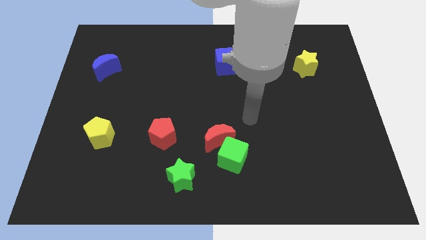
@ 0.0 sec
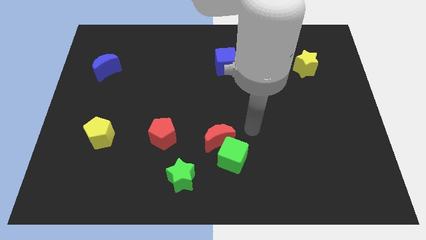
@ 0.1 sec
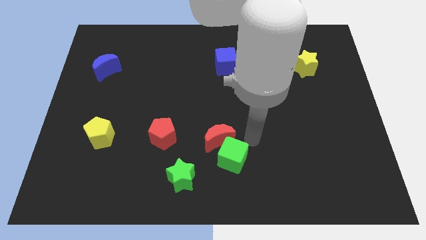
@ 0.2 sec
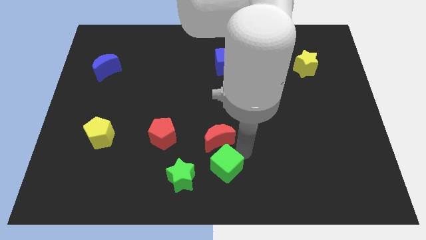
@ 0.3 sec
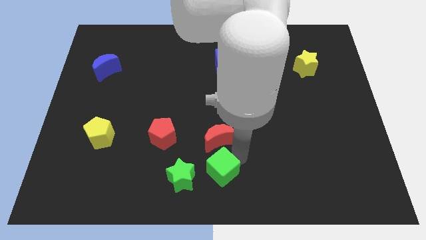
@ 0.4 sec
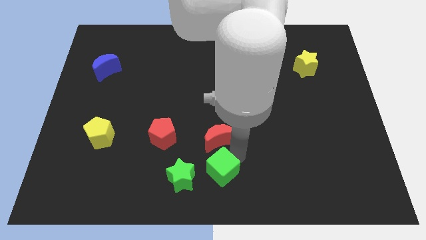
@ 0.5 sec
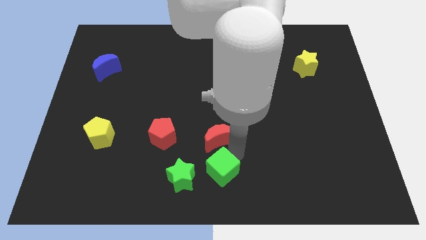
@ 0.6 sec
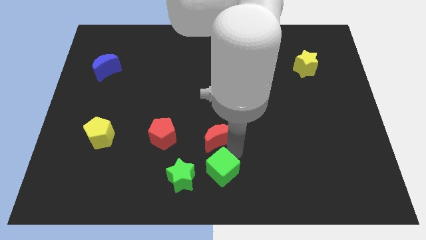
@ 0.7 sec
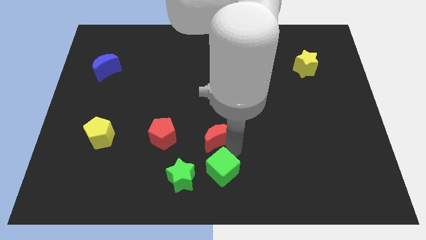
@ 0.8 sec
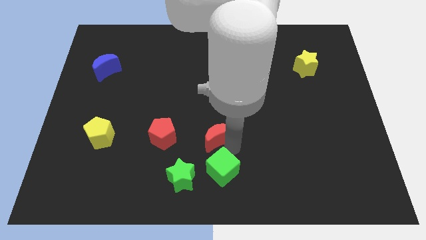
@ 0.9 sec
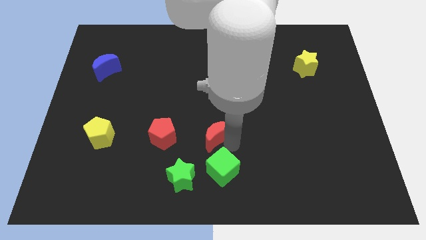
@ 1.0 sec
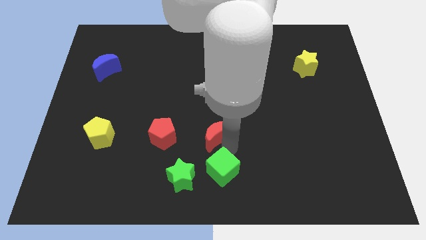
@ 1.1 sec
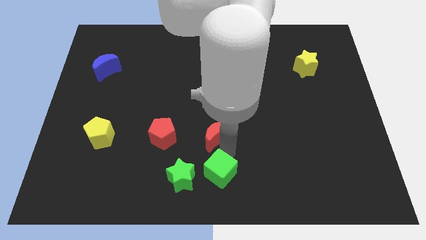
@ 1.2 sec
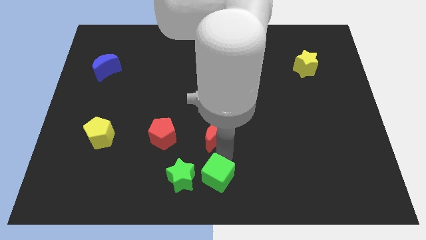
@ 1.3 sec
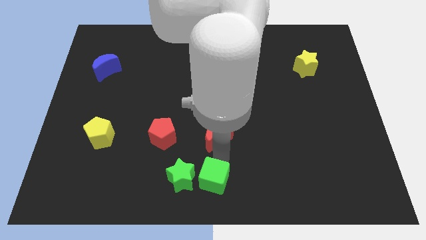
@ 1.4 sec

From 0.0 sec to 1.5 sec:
separate the red moon from the green cube

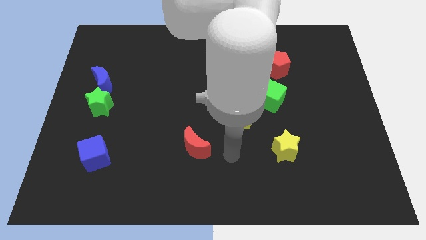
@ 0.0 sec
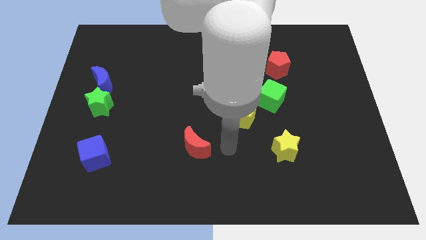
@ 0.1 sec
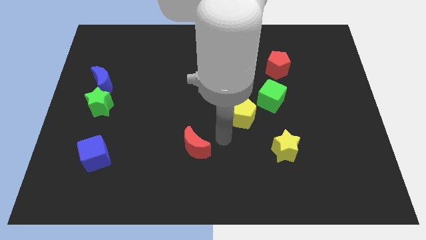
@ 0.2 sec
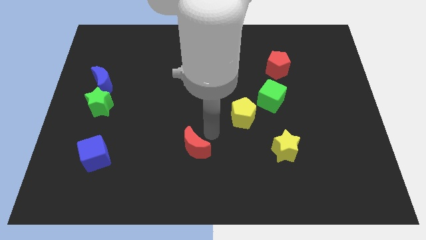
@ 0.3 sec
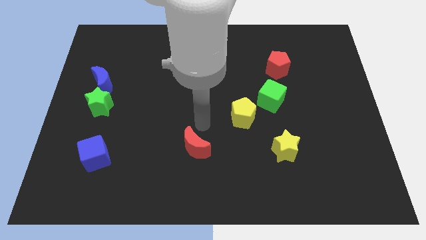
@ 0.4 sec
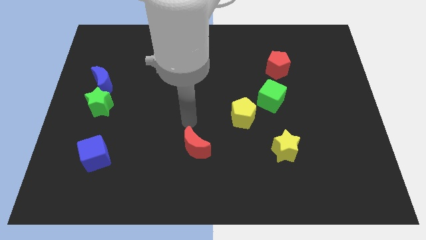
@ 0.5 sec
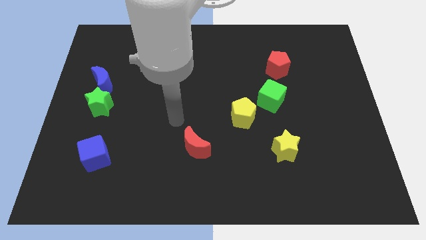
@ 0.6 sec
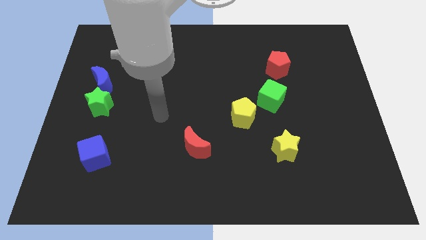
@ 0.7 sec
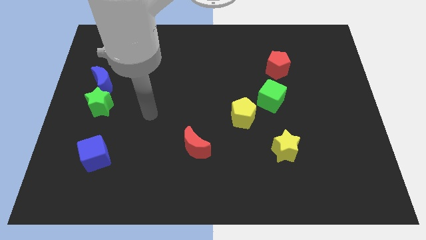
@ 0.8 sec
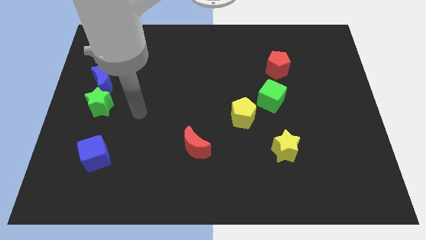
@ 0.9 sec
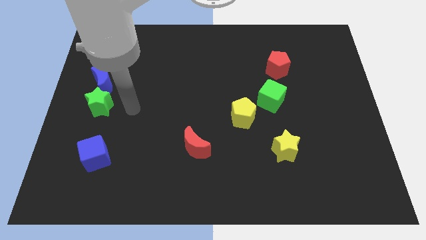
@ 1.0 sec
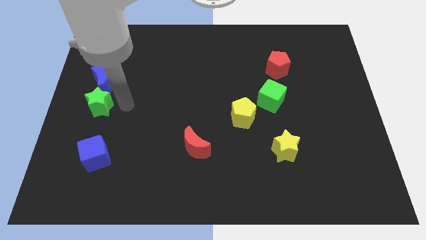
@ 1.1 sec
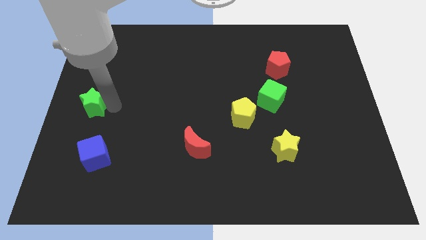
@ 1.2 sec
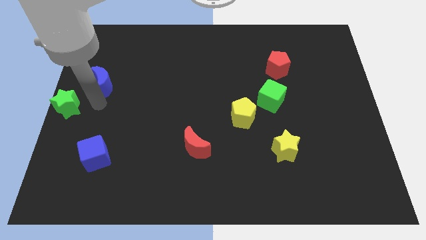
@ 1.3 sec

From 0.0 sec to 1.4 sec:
separate the blue moon from the green star

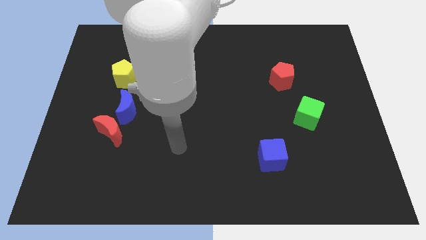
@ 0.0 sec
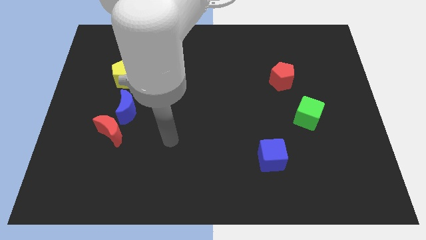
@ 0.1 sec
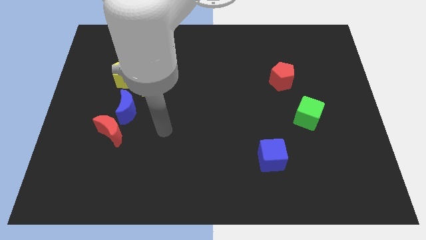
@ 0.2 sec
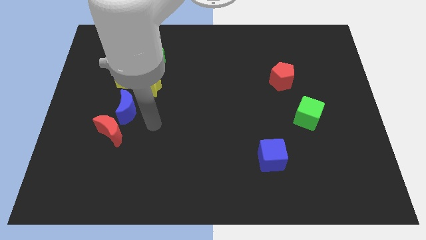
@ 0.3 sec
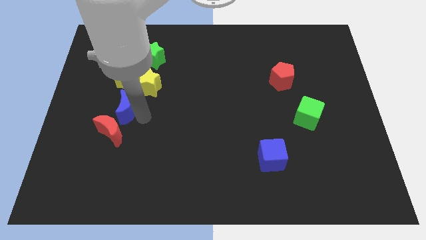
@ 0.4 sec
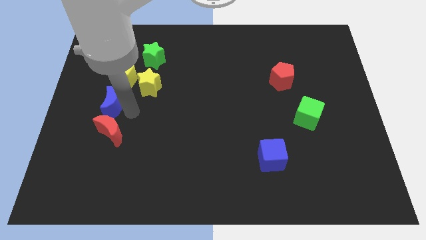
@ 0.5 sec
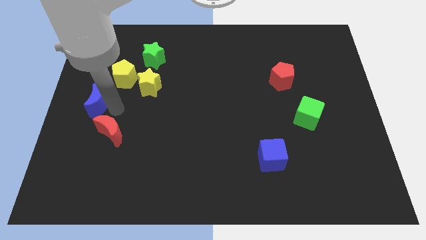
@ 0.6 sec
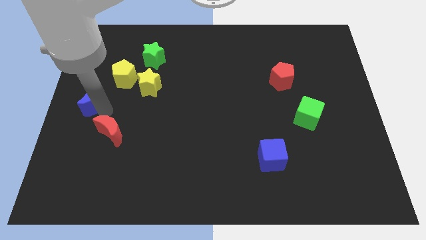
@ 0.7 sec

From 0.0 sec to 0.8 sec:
pull the red moon apart from the blue moon

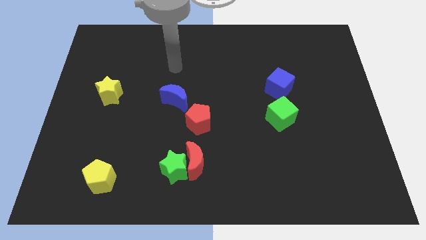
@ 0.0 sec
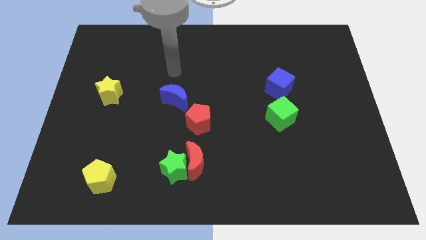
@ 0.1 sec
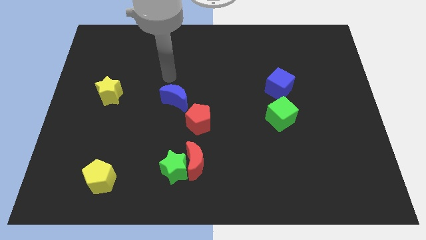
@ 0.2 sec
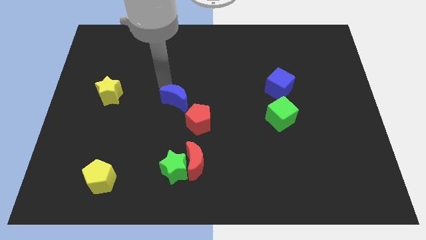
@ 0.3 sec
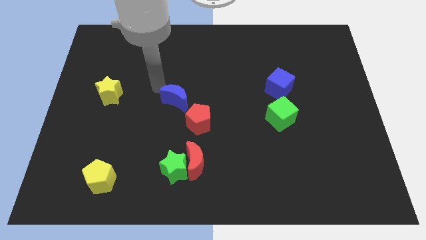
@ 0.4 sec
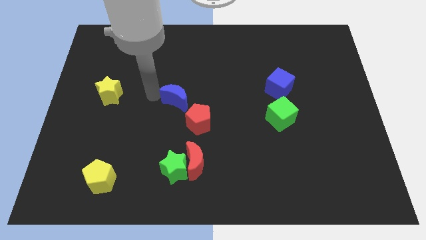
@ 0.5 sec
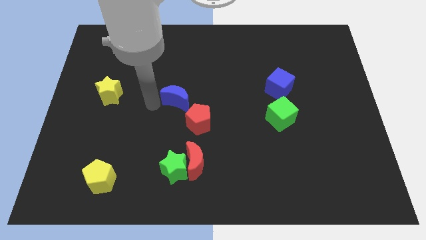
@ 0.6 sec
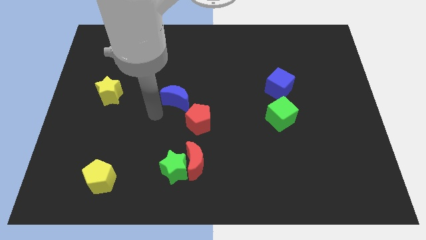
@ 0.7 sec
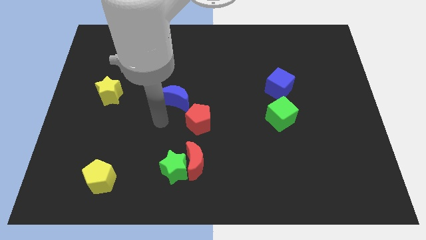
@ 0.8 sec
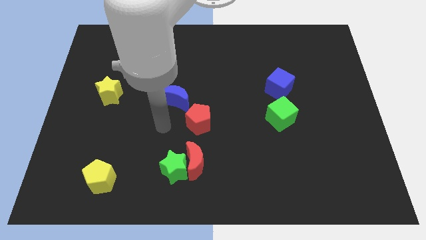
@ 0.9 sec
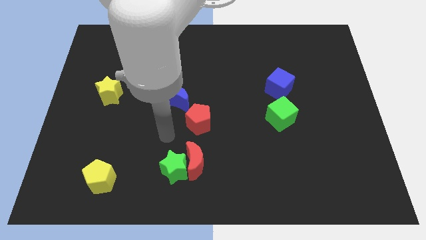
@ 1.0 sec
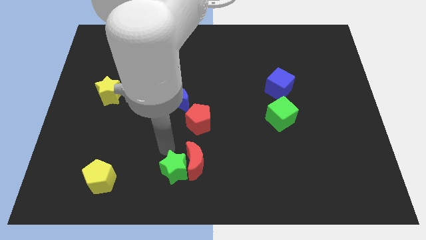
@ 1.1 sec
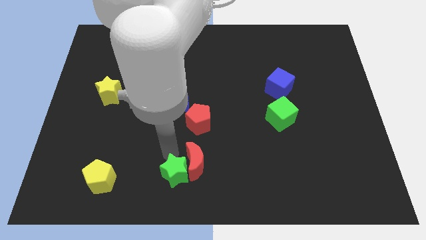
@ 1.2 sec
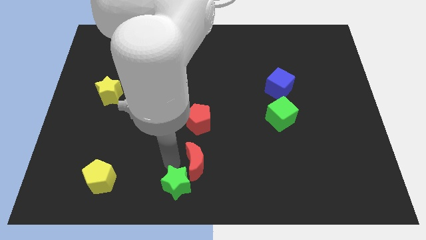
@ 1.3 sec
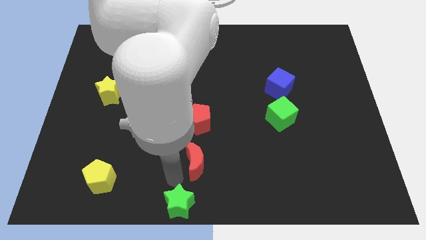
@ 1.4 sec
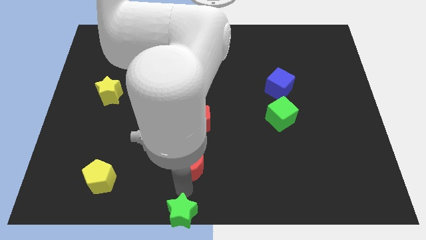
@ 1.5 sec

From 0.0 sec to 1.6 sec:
move the red moon away from the green star

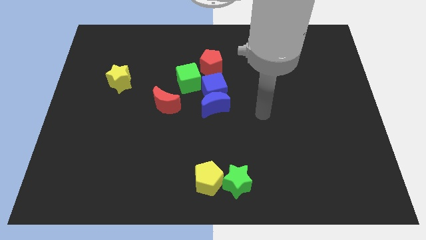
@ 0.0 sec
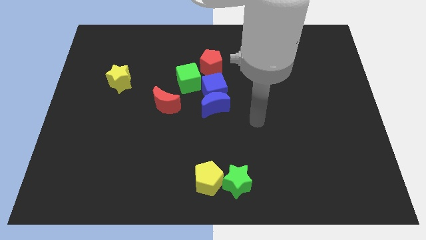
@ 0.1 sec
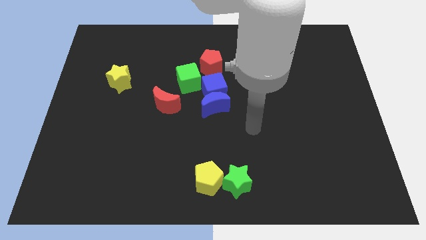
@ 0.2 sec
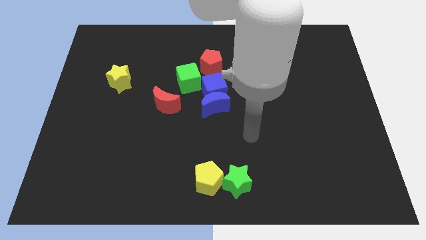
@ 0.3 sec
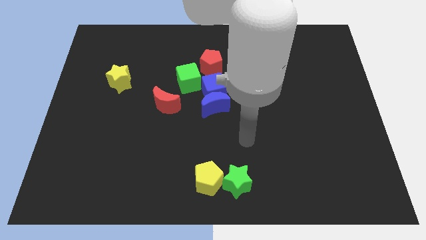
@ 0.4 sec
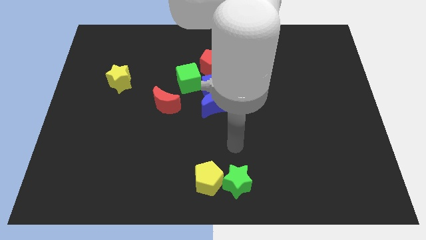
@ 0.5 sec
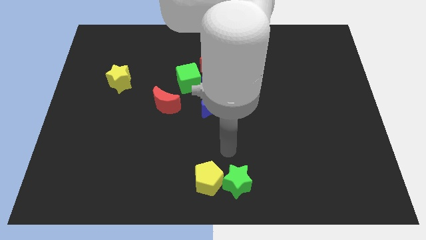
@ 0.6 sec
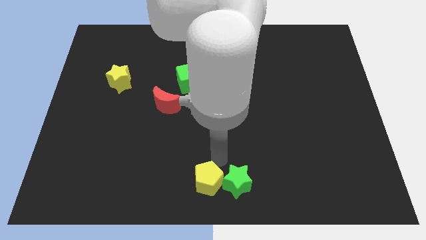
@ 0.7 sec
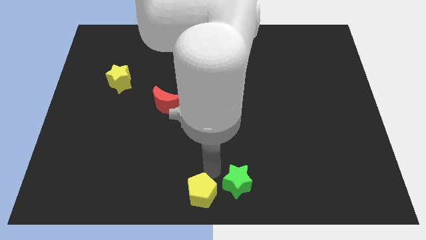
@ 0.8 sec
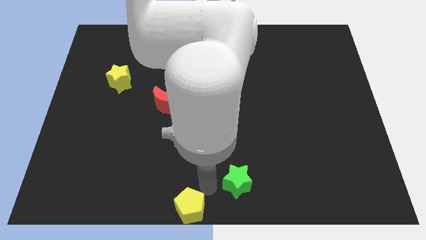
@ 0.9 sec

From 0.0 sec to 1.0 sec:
pull the green star apart from the yellow pentagon

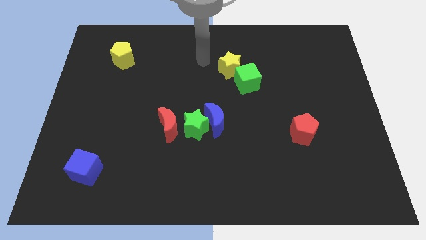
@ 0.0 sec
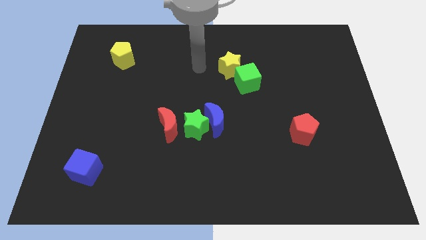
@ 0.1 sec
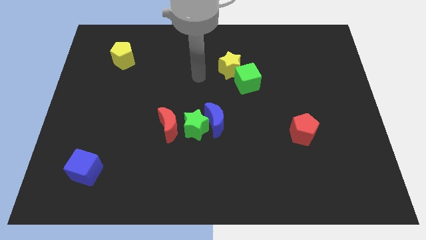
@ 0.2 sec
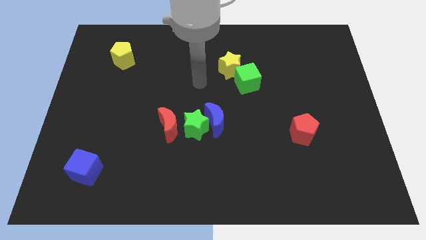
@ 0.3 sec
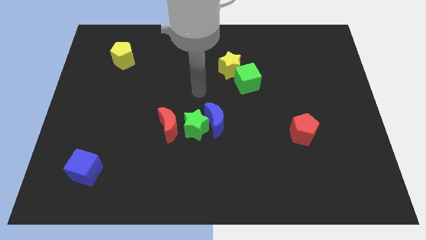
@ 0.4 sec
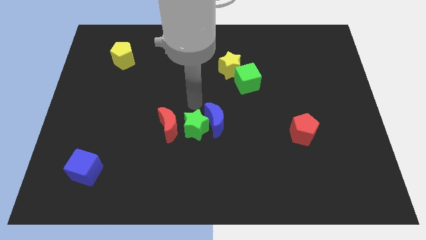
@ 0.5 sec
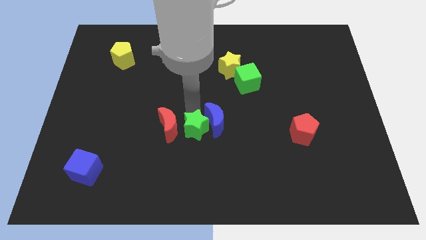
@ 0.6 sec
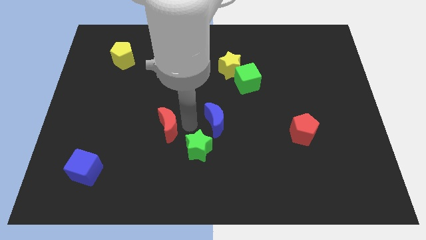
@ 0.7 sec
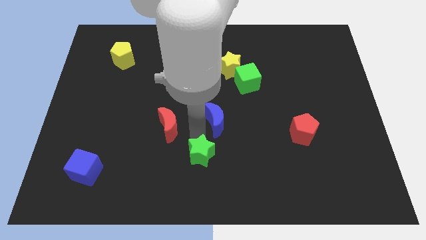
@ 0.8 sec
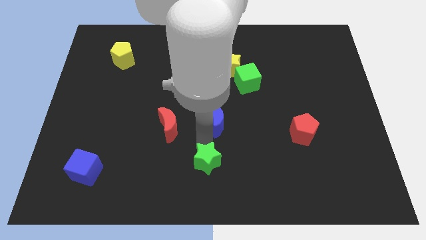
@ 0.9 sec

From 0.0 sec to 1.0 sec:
move the blue moon away from the green star

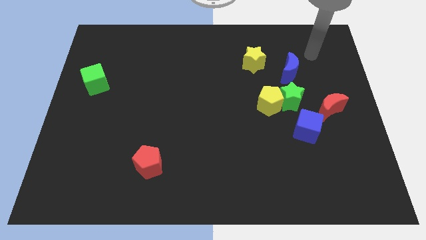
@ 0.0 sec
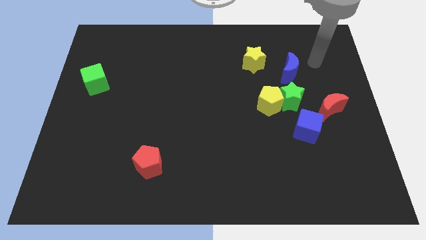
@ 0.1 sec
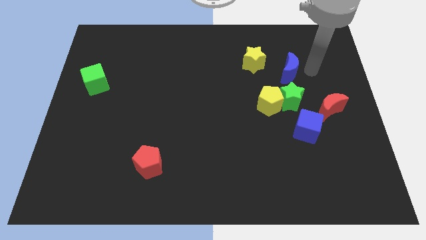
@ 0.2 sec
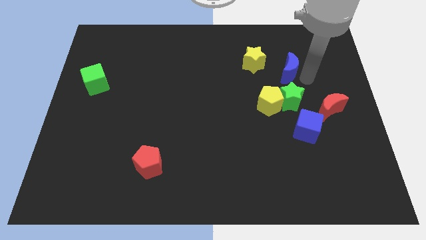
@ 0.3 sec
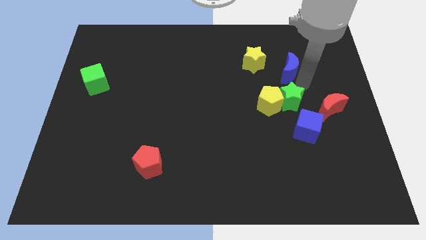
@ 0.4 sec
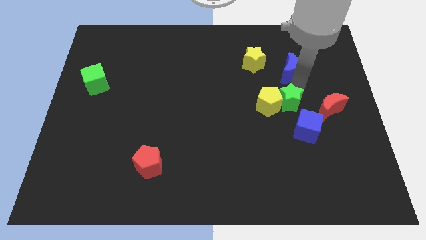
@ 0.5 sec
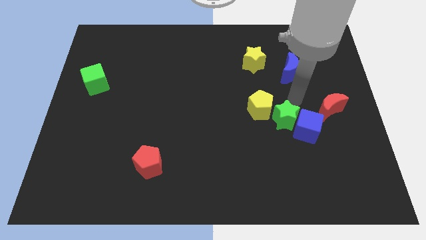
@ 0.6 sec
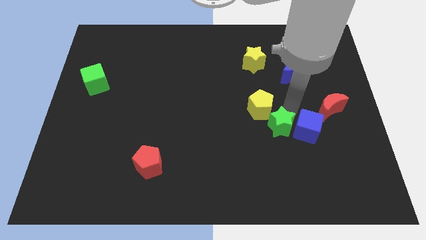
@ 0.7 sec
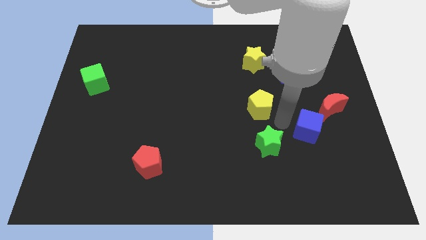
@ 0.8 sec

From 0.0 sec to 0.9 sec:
separate the yellow pentagon from the green star

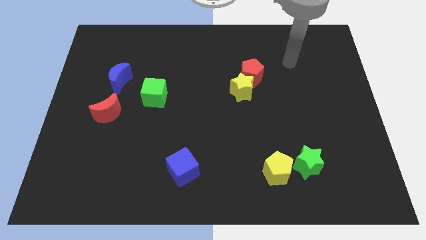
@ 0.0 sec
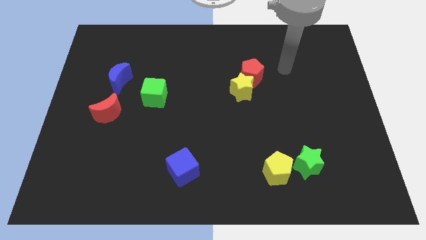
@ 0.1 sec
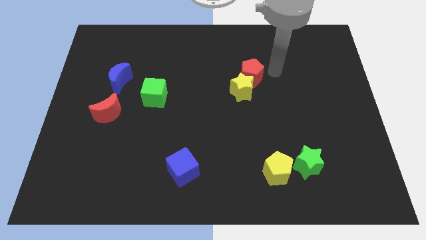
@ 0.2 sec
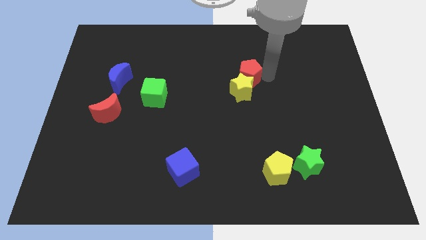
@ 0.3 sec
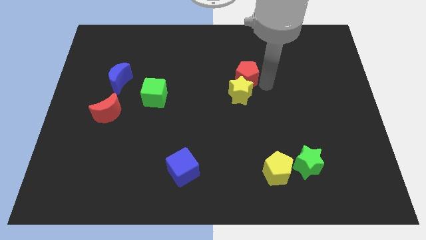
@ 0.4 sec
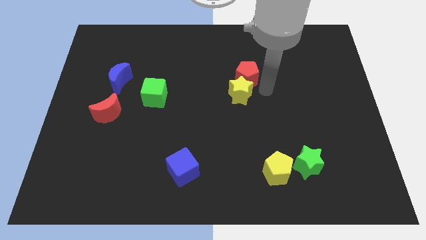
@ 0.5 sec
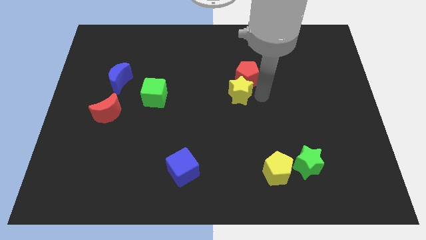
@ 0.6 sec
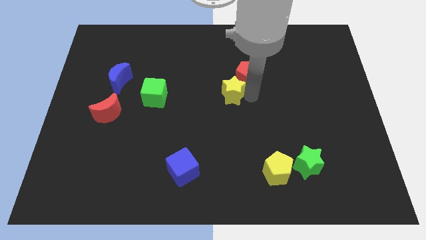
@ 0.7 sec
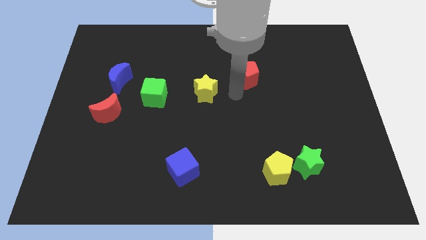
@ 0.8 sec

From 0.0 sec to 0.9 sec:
separate the red pentagon from the yellow star
